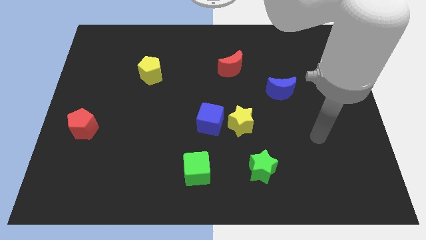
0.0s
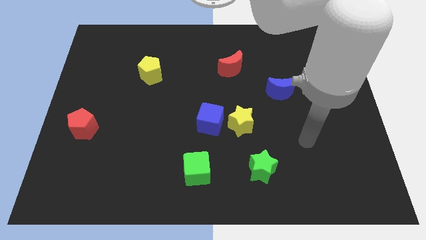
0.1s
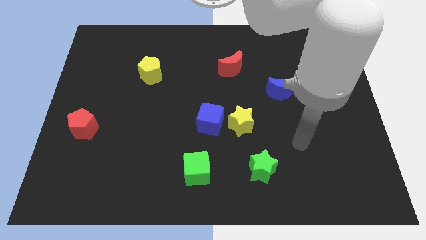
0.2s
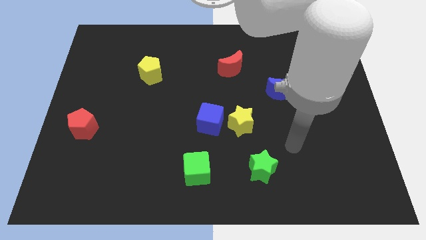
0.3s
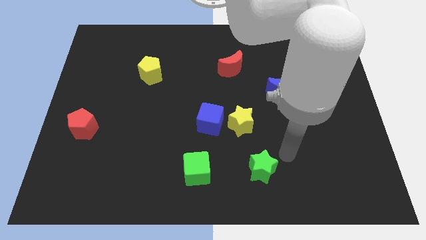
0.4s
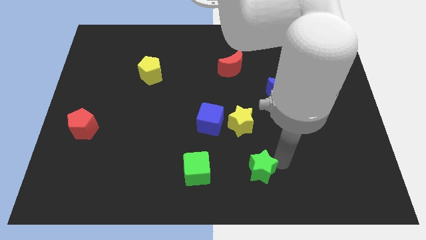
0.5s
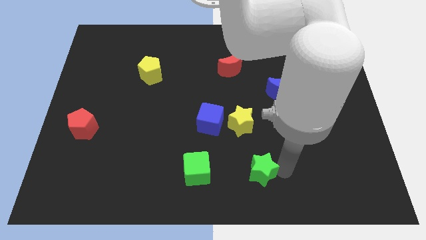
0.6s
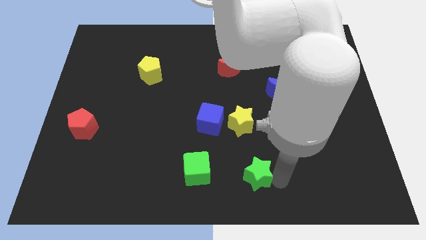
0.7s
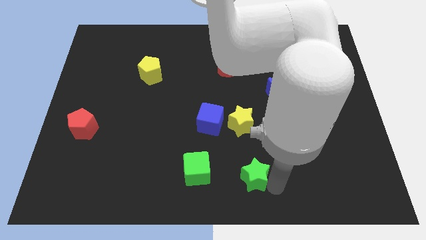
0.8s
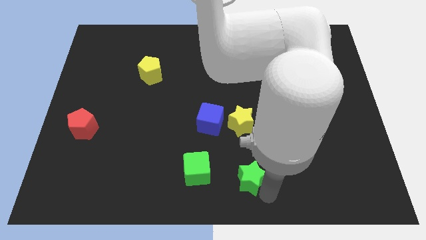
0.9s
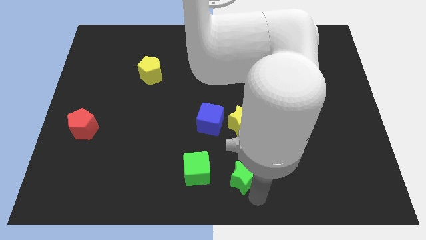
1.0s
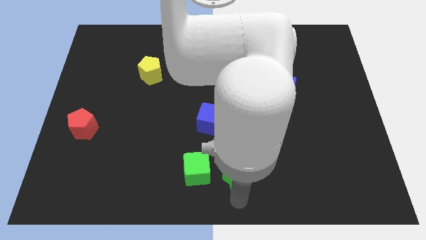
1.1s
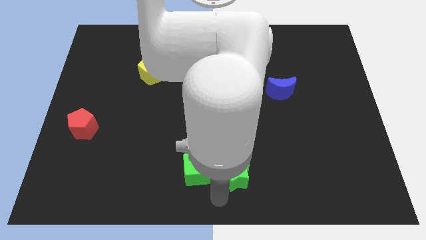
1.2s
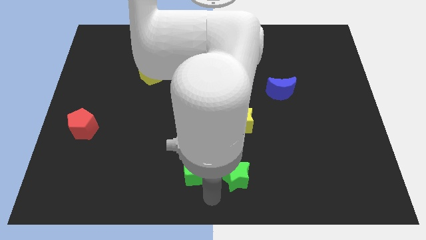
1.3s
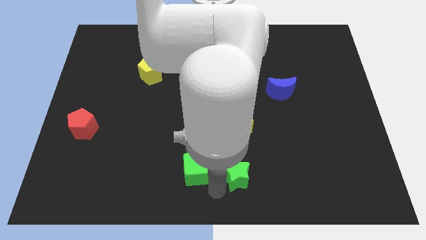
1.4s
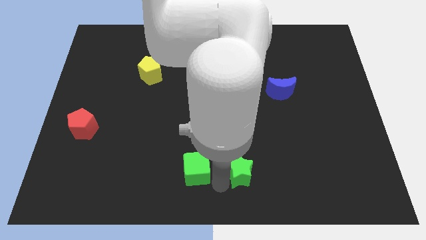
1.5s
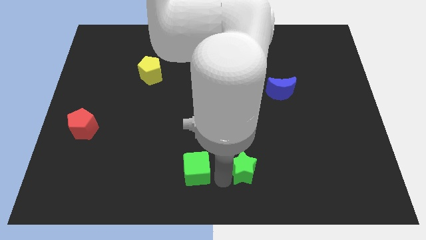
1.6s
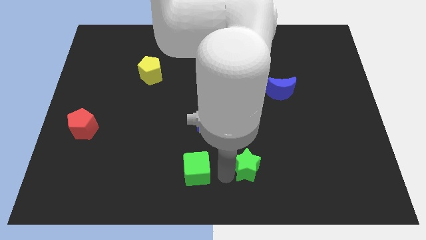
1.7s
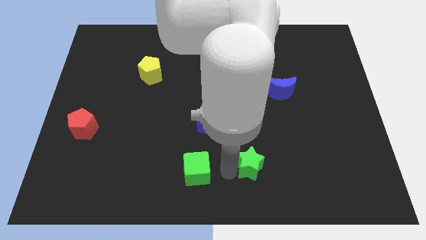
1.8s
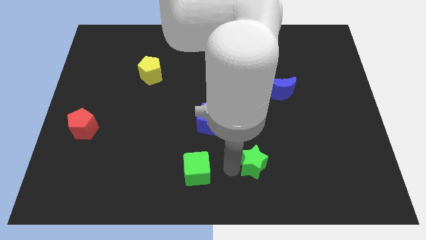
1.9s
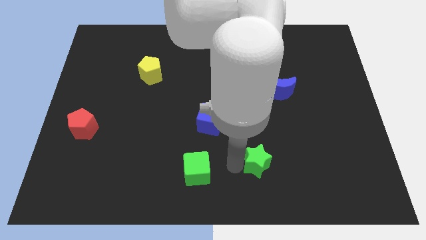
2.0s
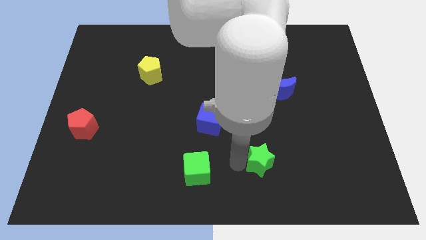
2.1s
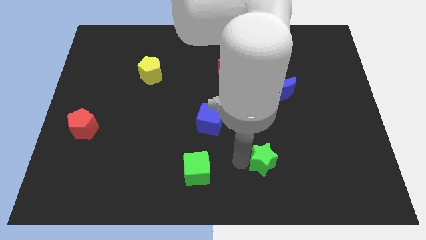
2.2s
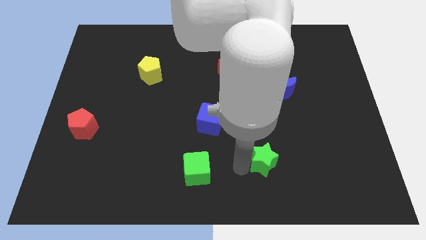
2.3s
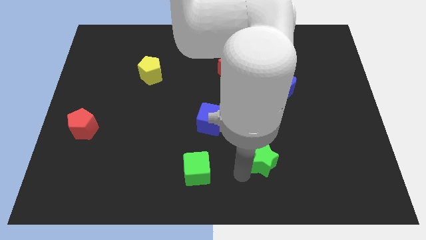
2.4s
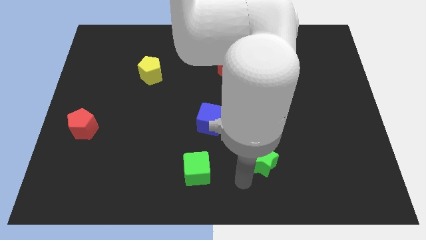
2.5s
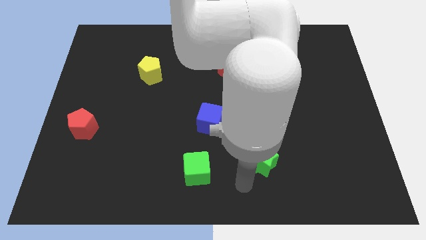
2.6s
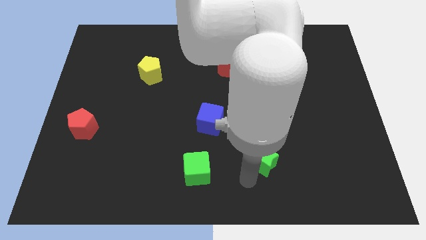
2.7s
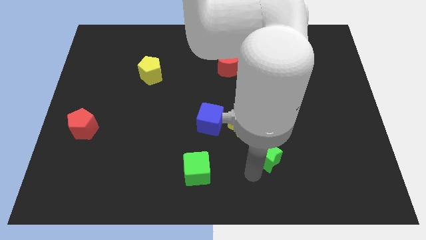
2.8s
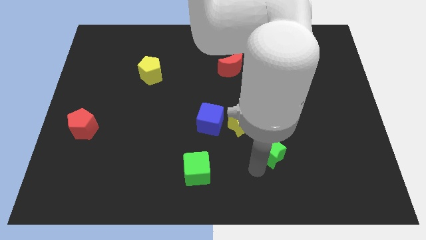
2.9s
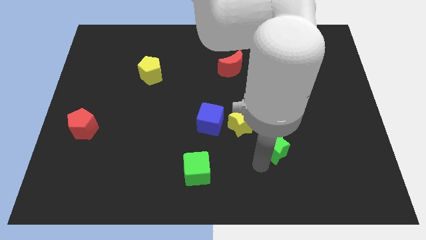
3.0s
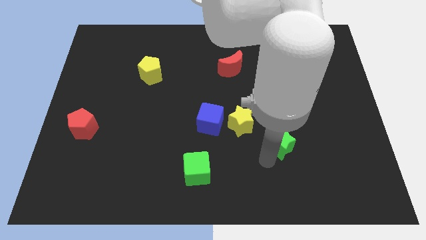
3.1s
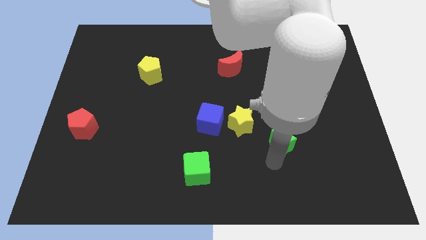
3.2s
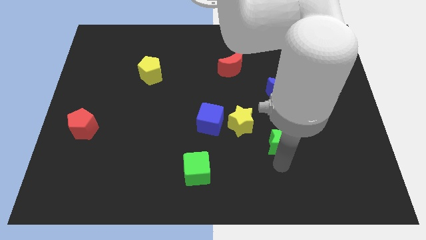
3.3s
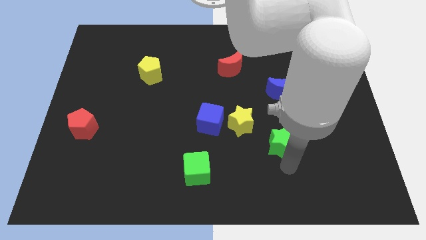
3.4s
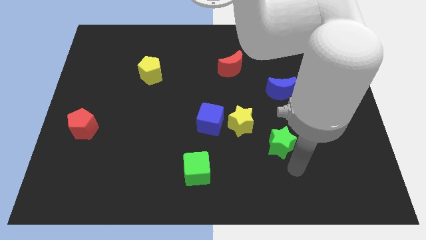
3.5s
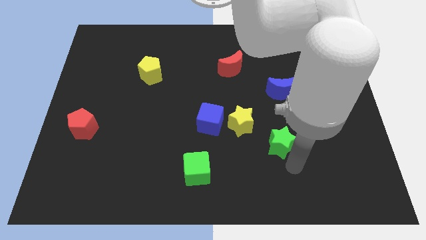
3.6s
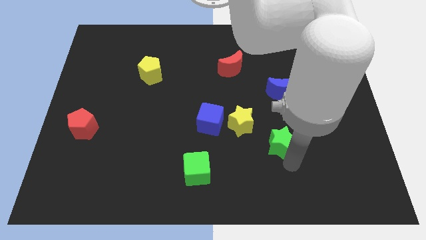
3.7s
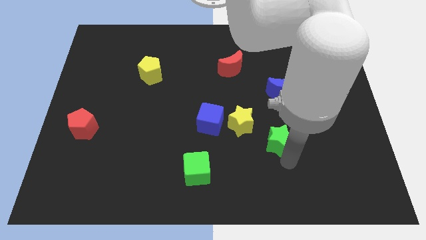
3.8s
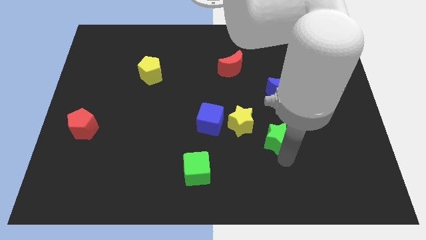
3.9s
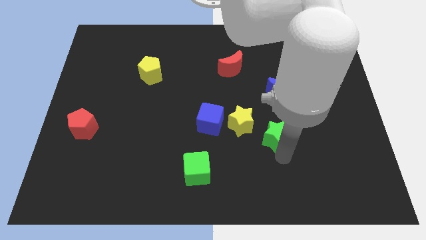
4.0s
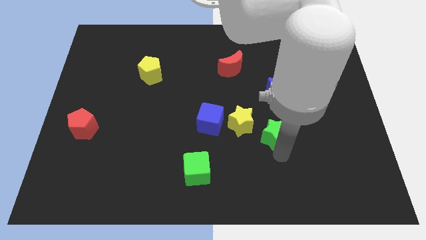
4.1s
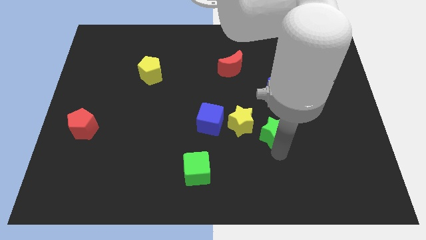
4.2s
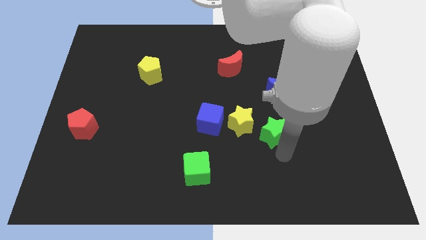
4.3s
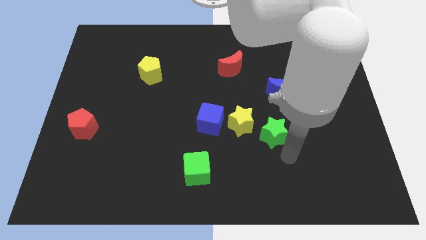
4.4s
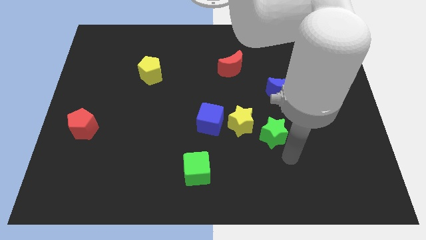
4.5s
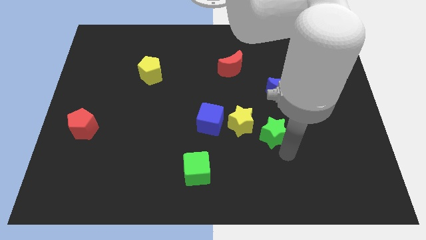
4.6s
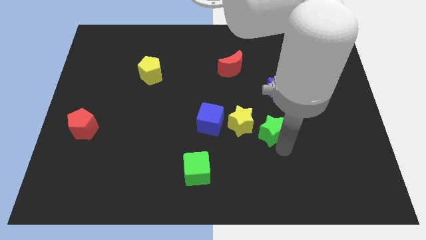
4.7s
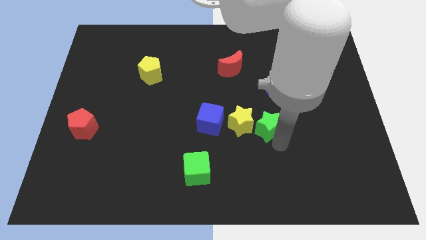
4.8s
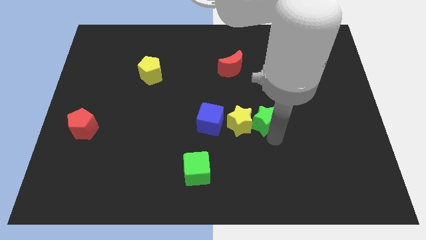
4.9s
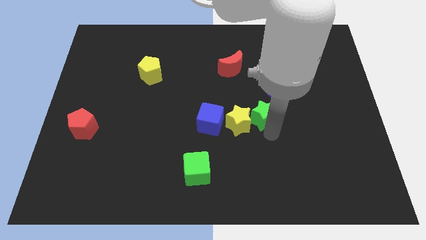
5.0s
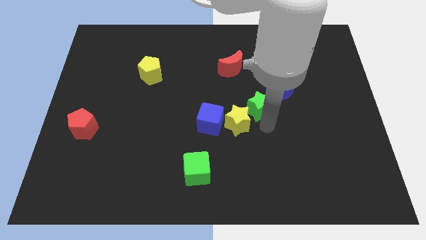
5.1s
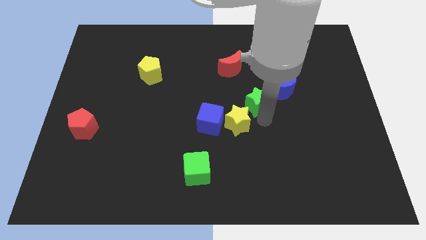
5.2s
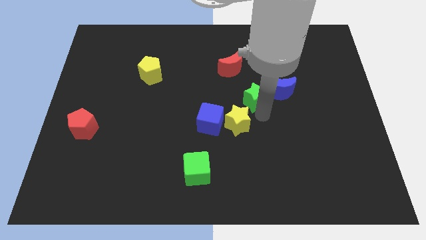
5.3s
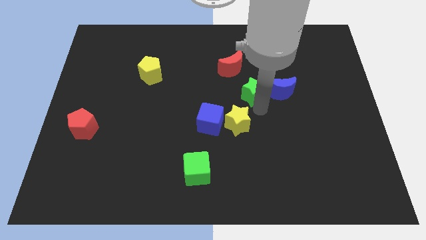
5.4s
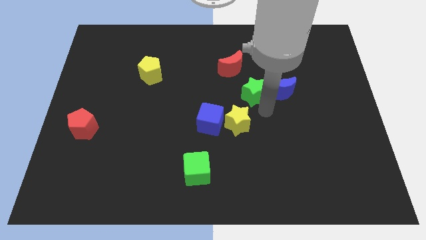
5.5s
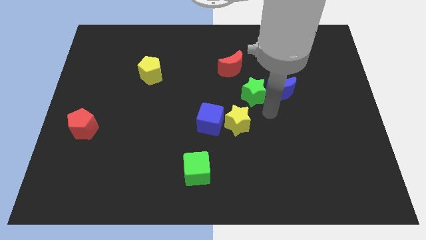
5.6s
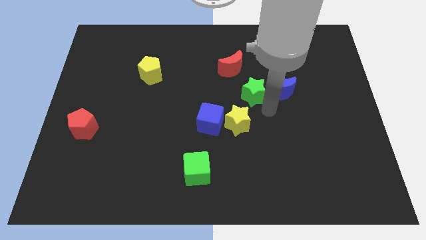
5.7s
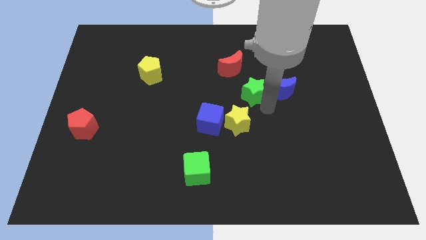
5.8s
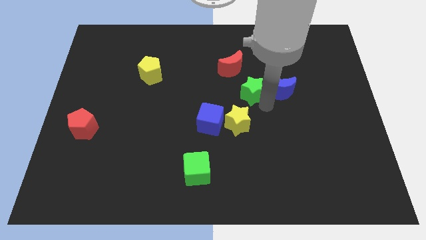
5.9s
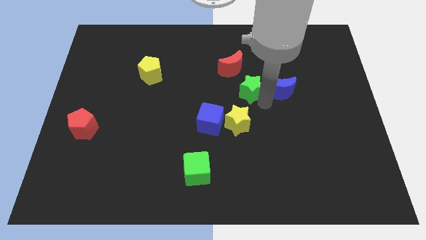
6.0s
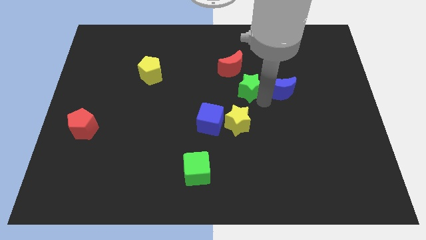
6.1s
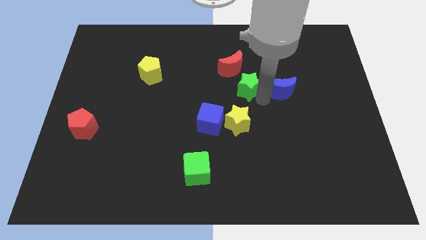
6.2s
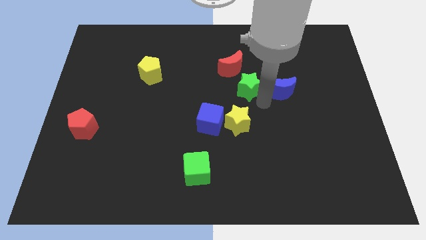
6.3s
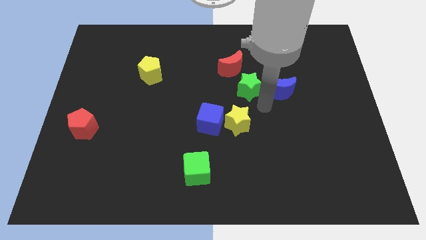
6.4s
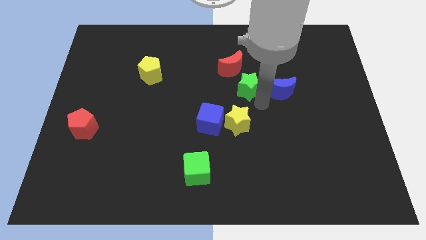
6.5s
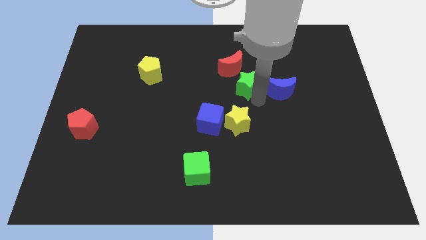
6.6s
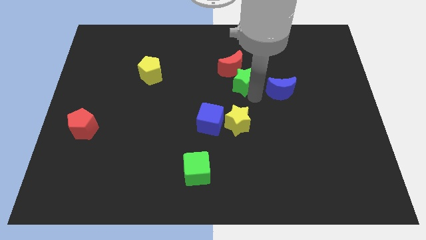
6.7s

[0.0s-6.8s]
push the green star towards the red moon
